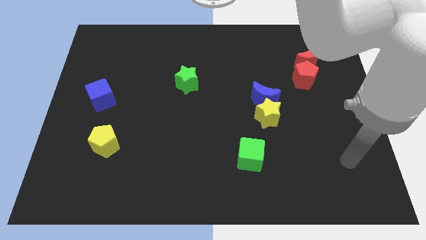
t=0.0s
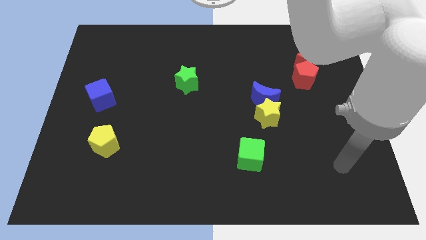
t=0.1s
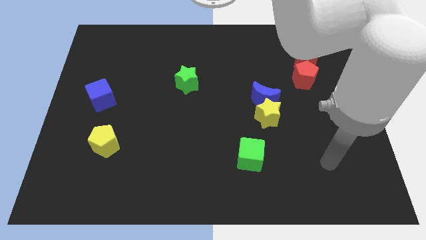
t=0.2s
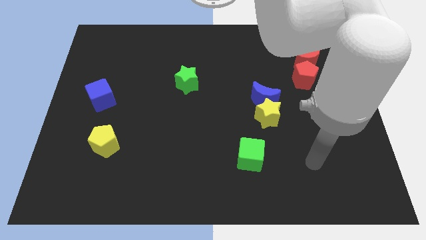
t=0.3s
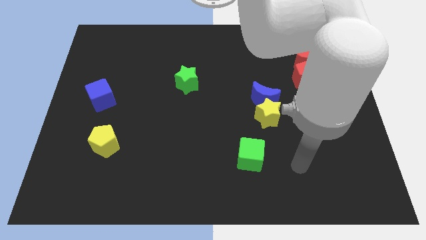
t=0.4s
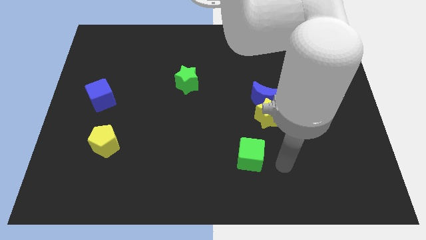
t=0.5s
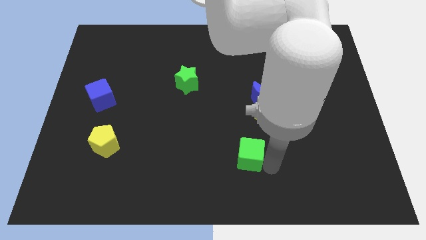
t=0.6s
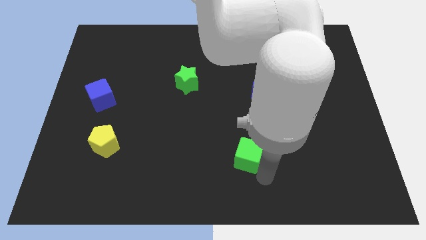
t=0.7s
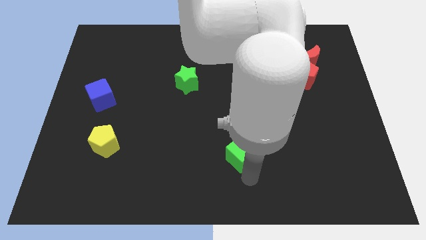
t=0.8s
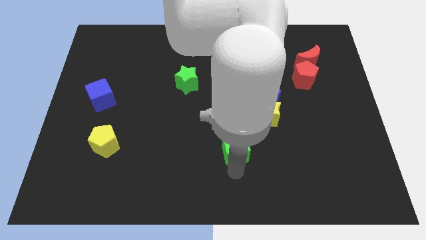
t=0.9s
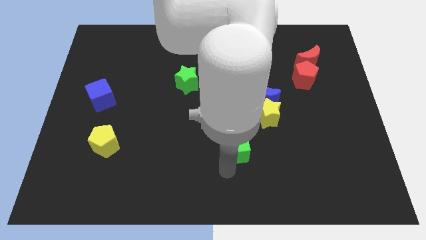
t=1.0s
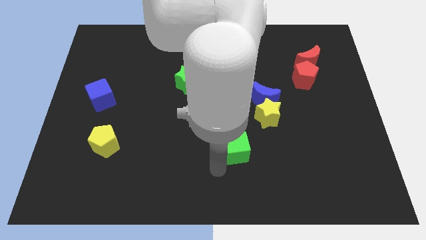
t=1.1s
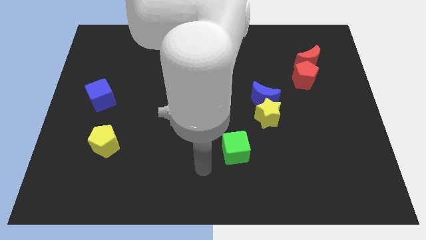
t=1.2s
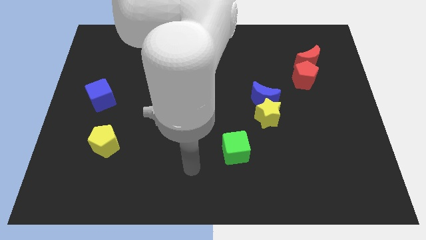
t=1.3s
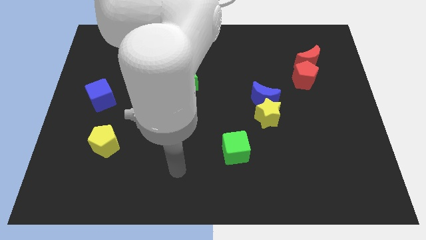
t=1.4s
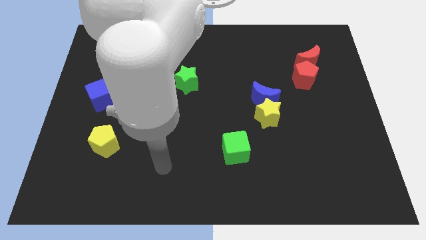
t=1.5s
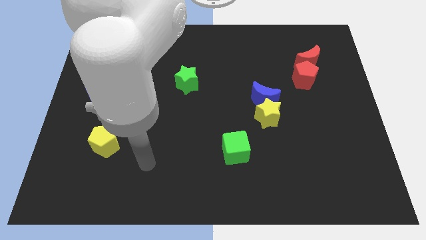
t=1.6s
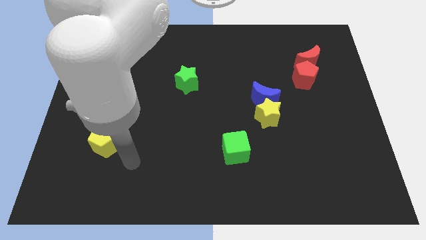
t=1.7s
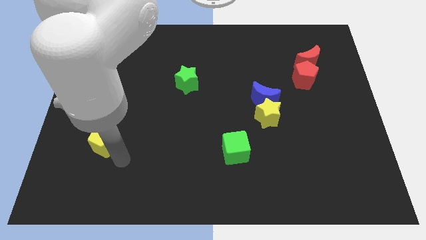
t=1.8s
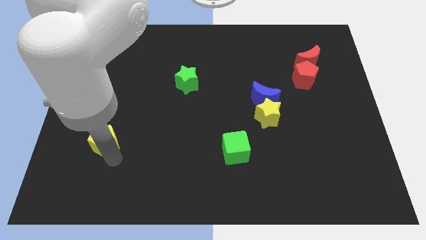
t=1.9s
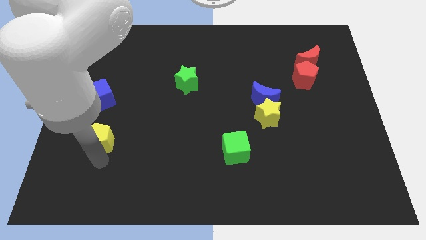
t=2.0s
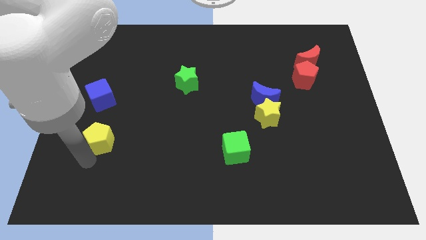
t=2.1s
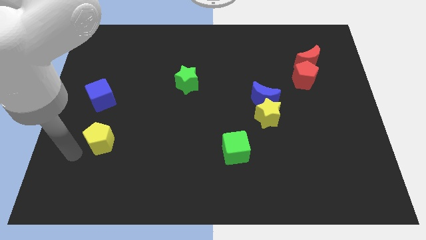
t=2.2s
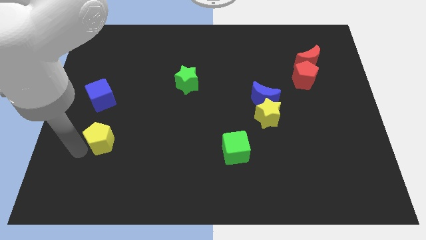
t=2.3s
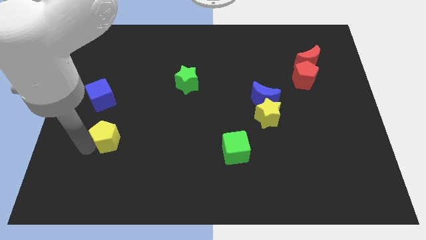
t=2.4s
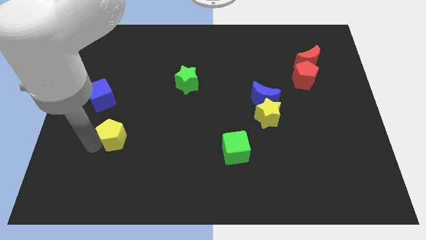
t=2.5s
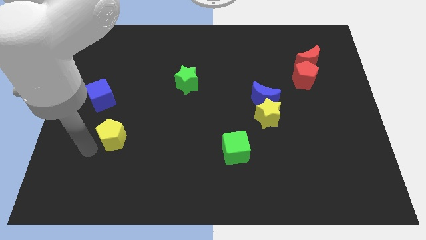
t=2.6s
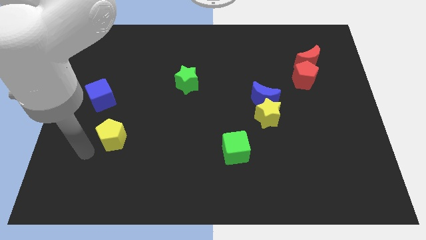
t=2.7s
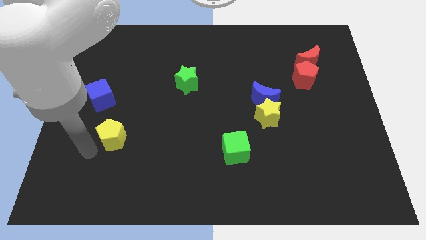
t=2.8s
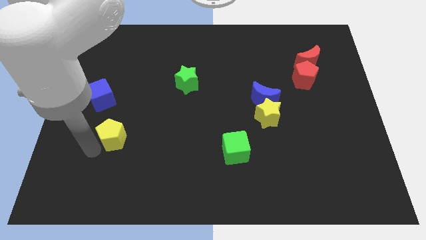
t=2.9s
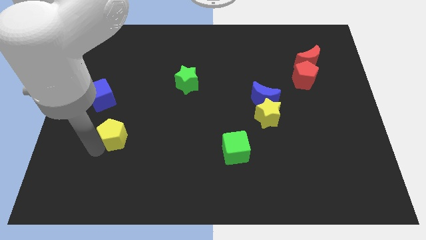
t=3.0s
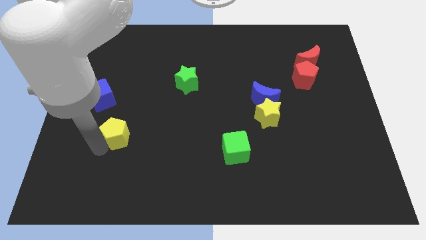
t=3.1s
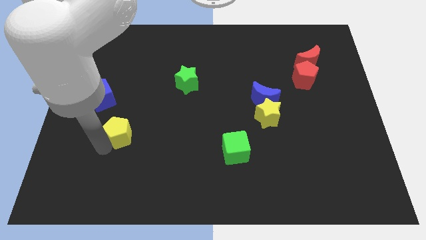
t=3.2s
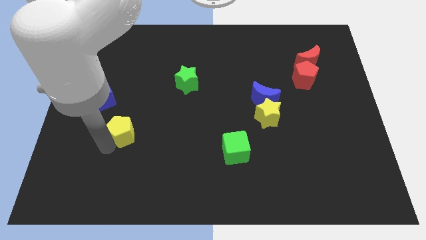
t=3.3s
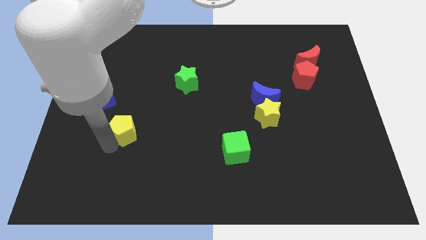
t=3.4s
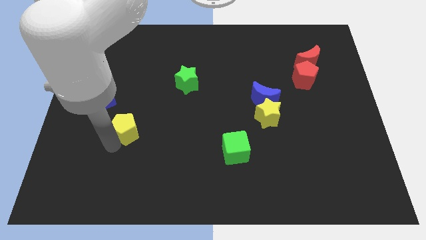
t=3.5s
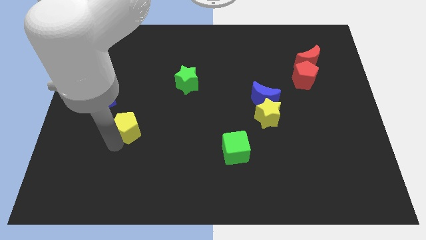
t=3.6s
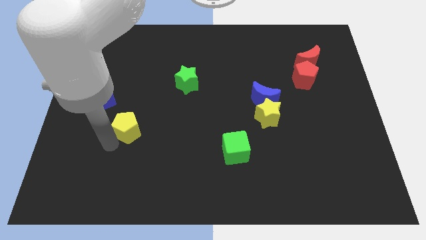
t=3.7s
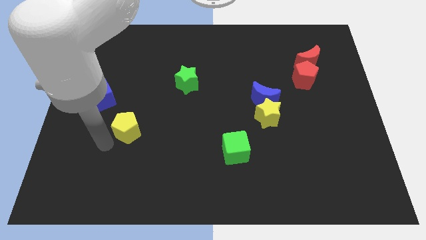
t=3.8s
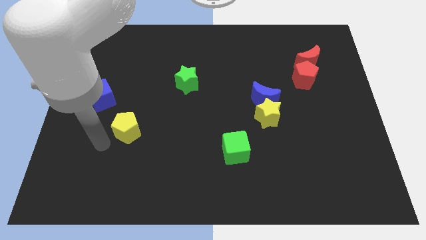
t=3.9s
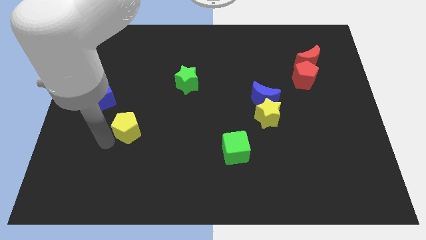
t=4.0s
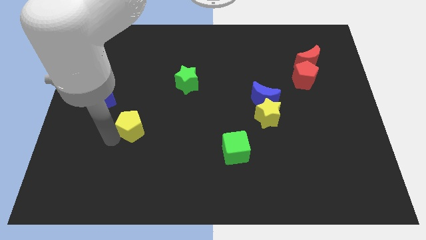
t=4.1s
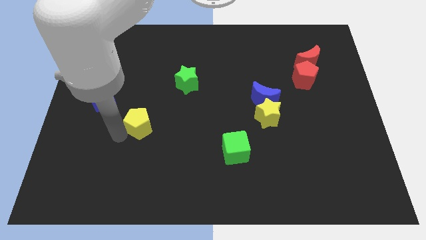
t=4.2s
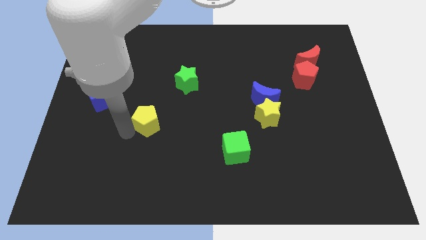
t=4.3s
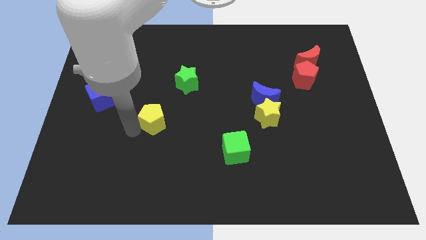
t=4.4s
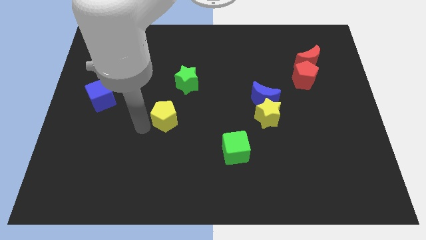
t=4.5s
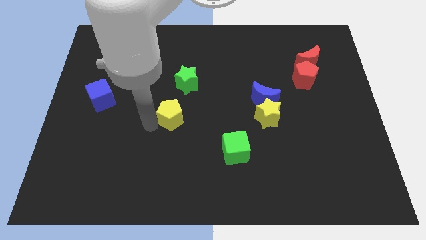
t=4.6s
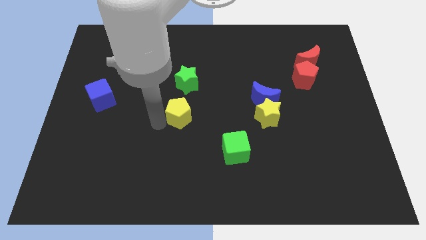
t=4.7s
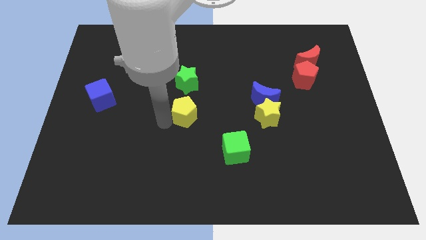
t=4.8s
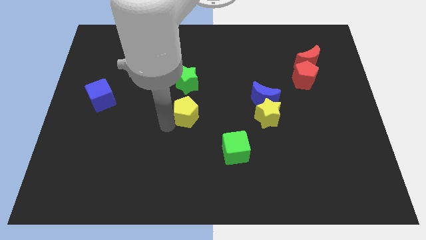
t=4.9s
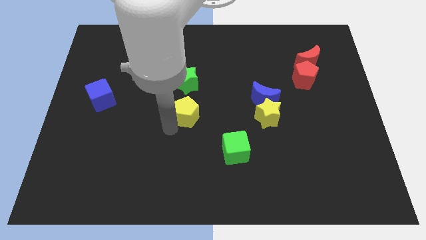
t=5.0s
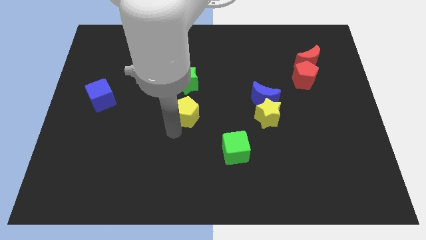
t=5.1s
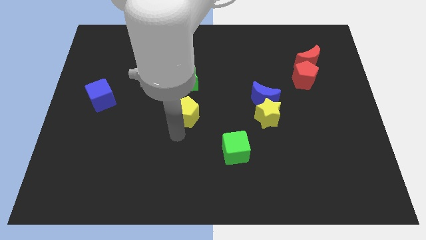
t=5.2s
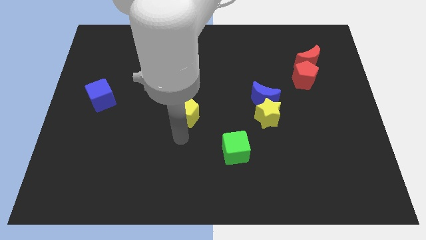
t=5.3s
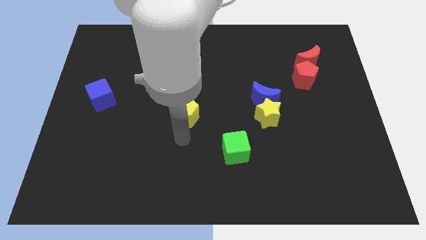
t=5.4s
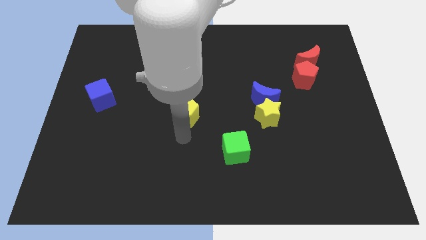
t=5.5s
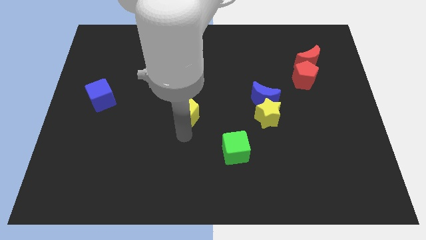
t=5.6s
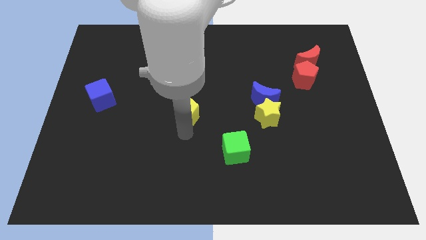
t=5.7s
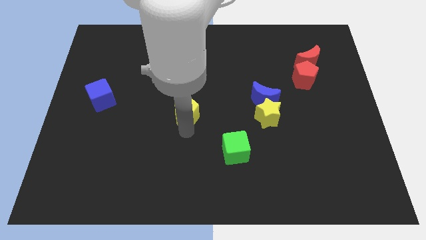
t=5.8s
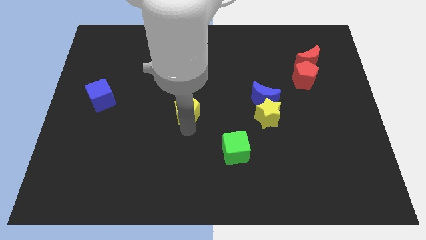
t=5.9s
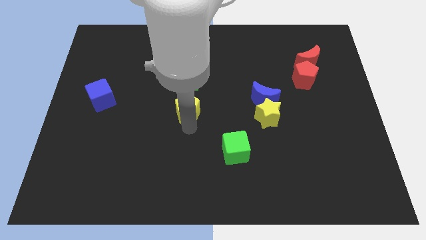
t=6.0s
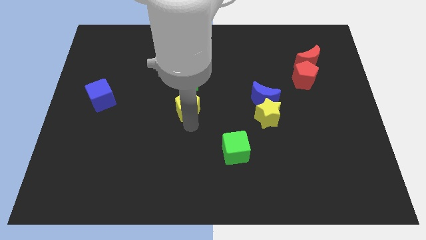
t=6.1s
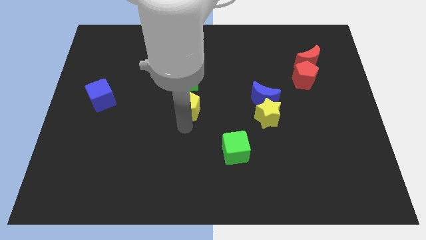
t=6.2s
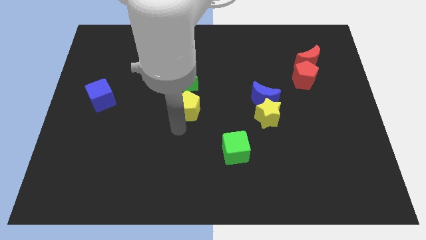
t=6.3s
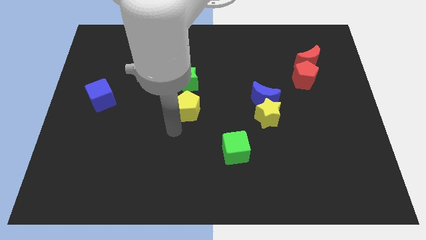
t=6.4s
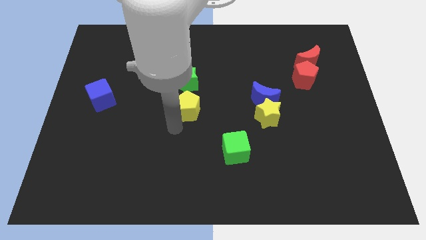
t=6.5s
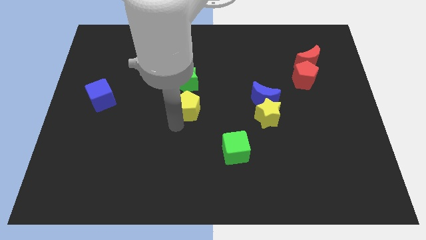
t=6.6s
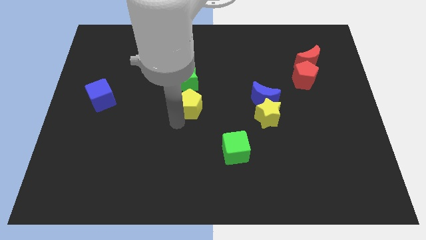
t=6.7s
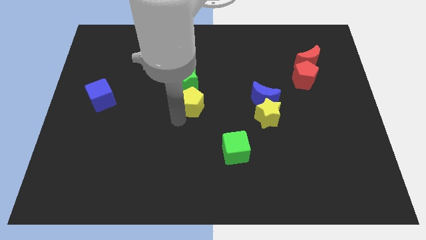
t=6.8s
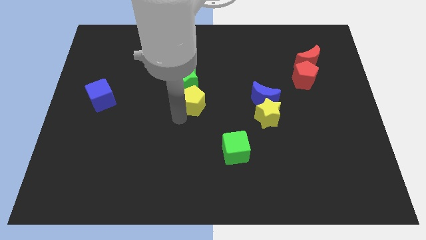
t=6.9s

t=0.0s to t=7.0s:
push the yellow pentagon upwards and to the right diagonally

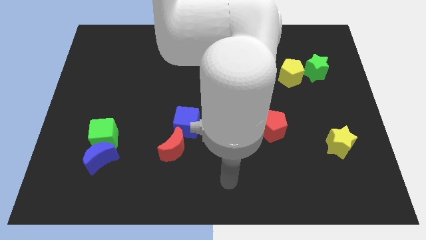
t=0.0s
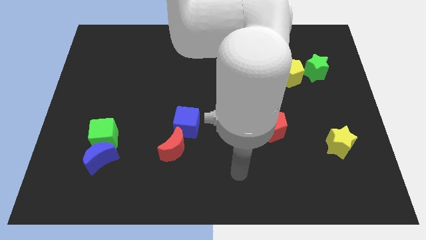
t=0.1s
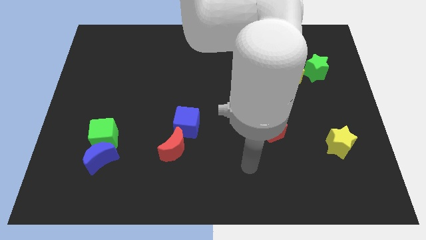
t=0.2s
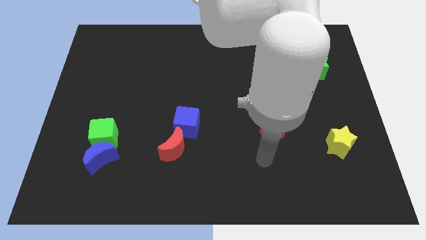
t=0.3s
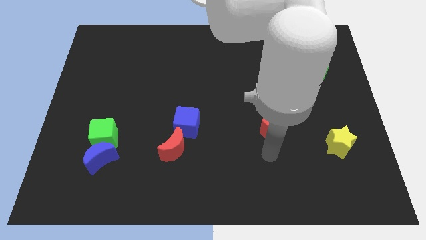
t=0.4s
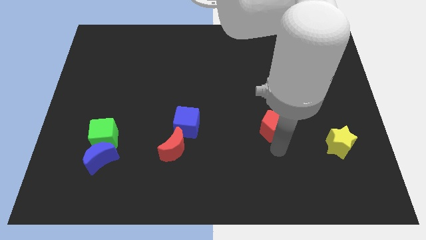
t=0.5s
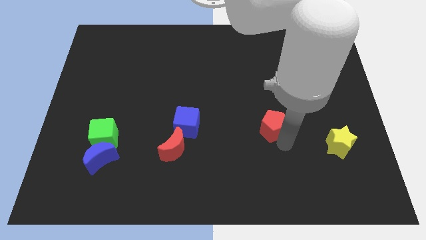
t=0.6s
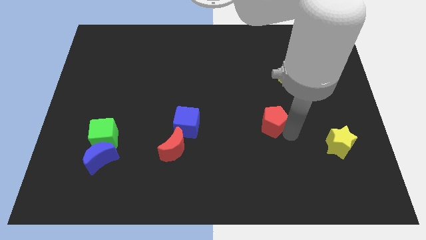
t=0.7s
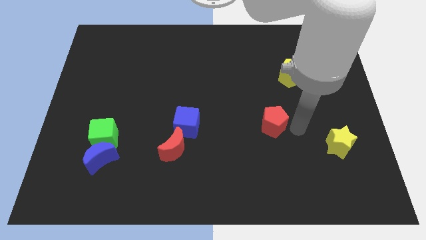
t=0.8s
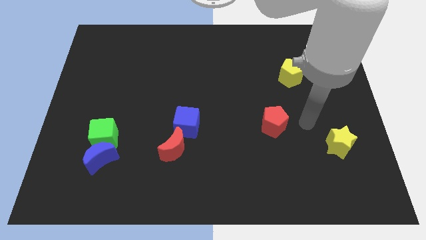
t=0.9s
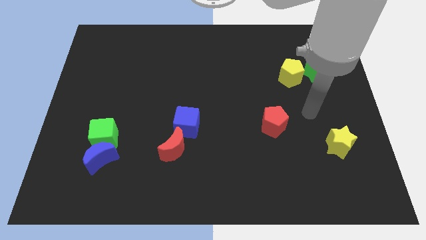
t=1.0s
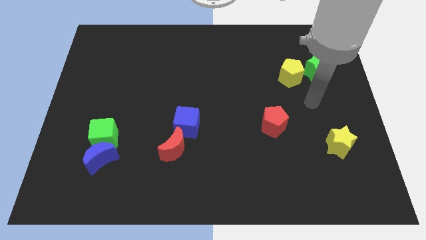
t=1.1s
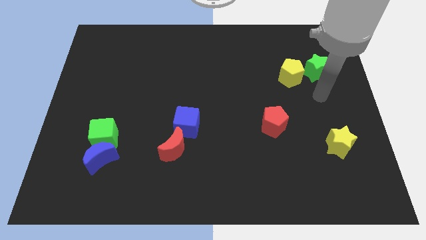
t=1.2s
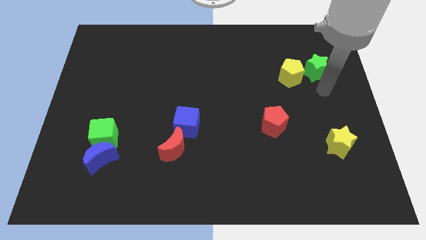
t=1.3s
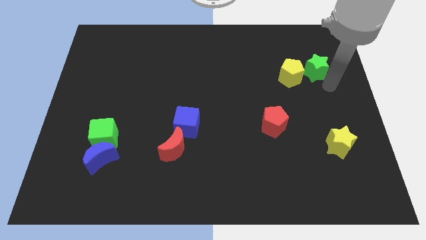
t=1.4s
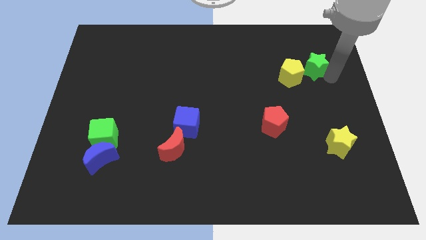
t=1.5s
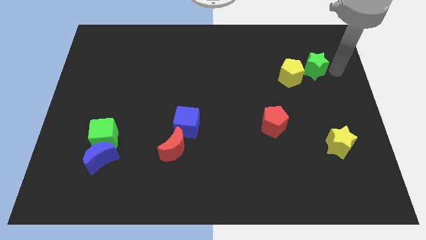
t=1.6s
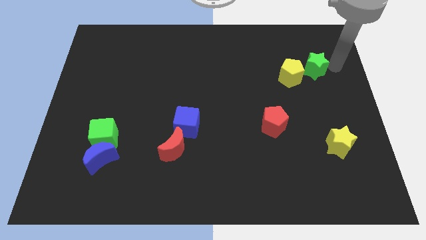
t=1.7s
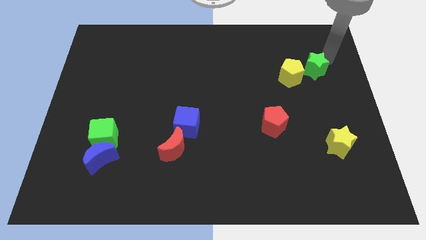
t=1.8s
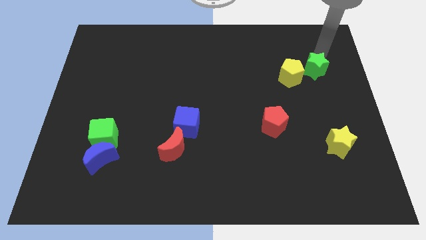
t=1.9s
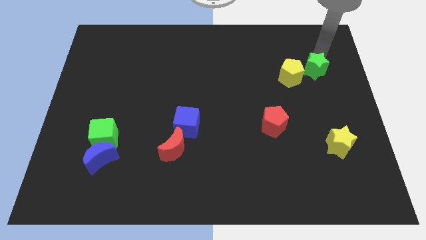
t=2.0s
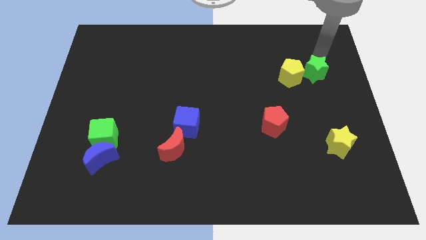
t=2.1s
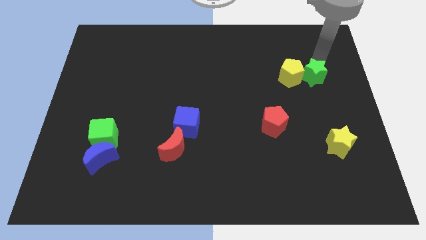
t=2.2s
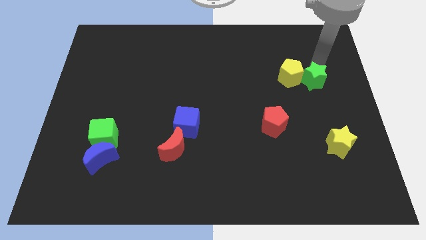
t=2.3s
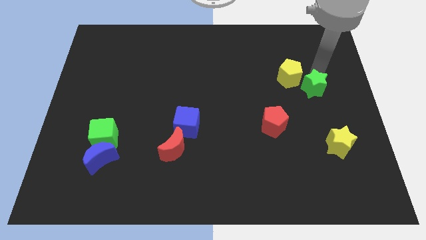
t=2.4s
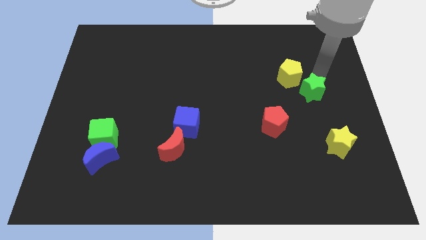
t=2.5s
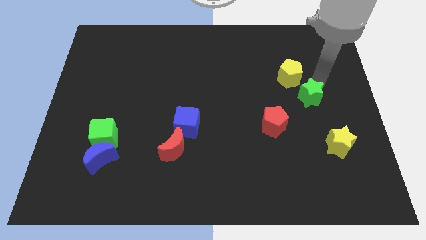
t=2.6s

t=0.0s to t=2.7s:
slide the green star downwards and to the left diagonally a bit
